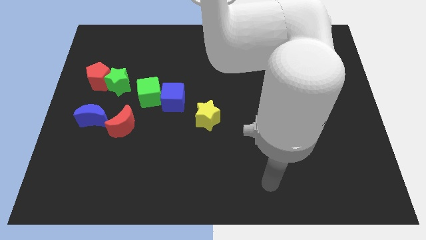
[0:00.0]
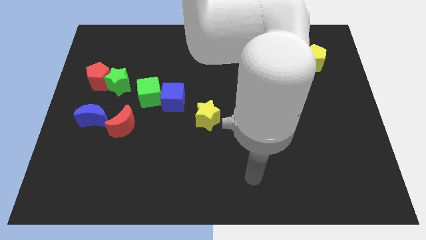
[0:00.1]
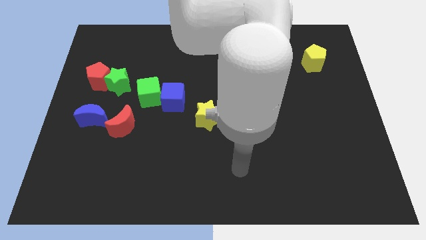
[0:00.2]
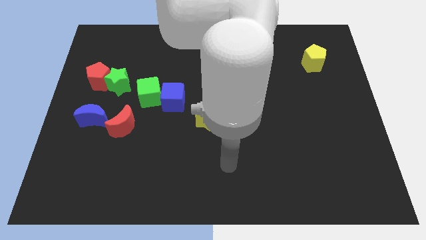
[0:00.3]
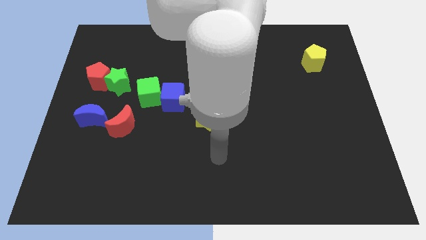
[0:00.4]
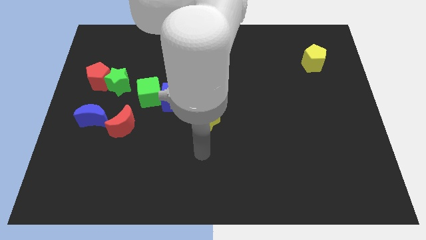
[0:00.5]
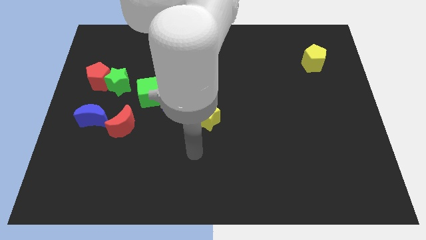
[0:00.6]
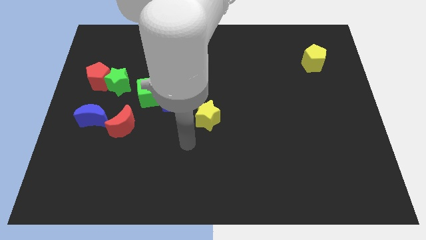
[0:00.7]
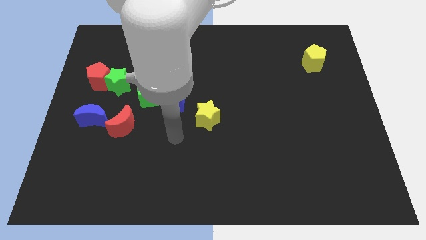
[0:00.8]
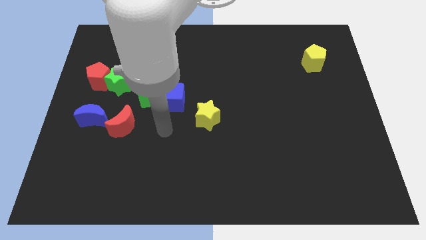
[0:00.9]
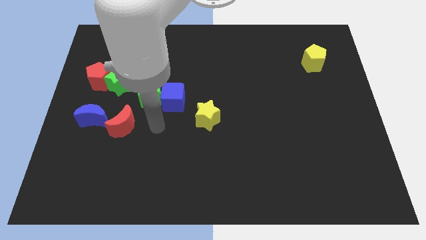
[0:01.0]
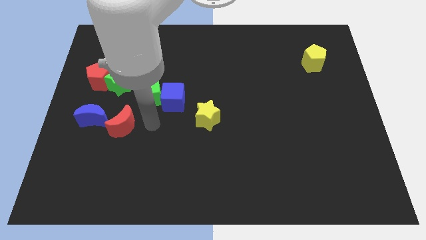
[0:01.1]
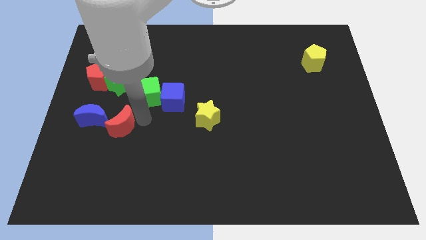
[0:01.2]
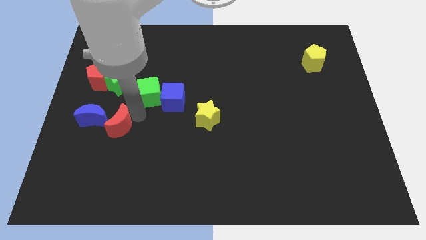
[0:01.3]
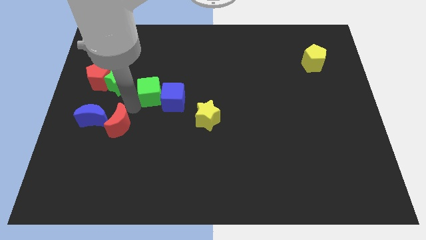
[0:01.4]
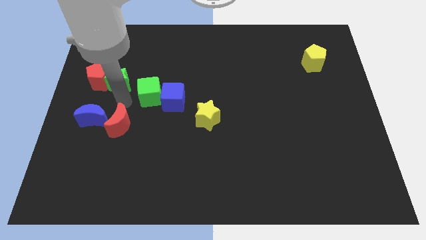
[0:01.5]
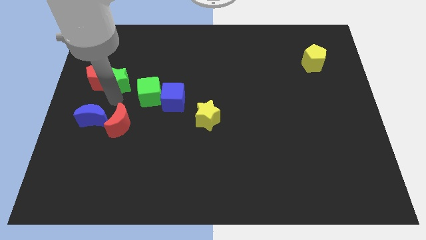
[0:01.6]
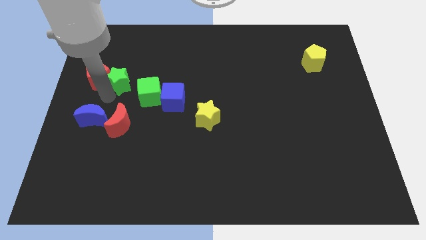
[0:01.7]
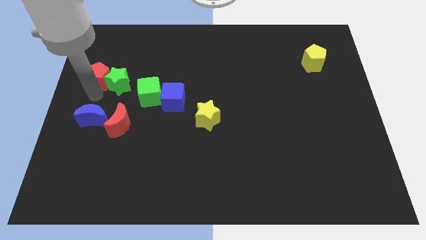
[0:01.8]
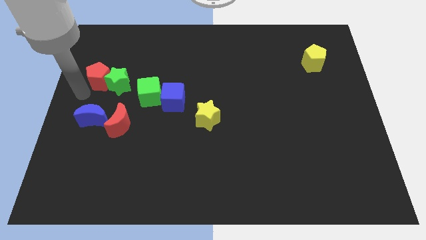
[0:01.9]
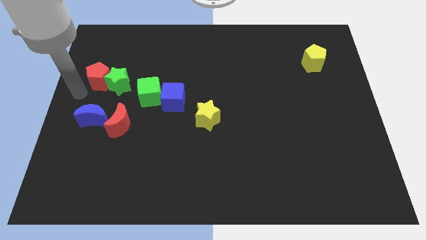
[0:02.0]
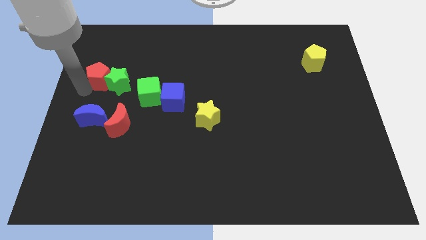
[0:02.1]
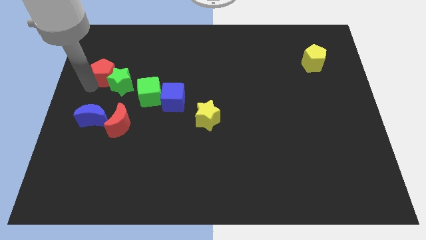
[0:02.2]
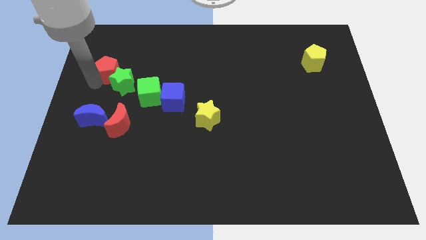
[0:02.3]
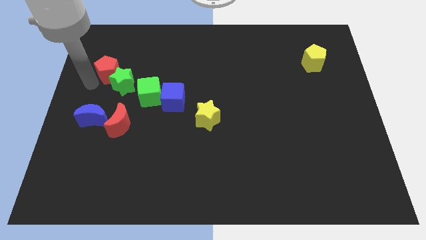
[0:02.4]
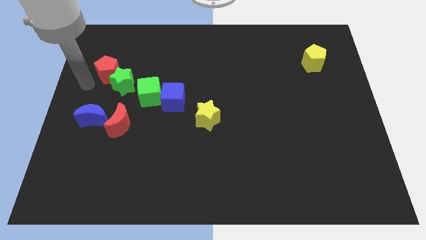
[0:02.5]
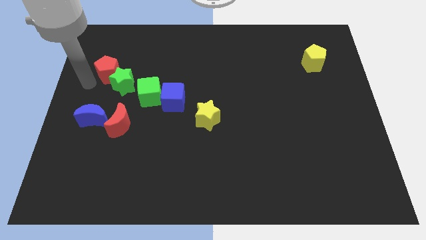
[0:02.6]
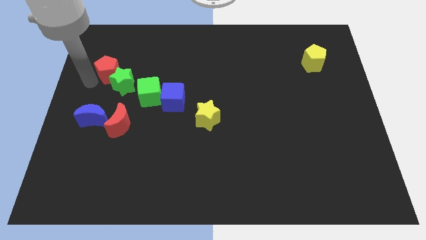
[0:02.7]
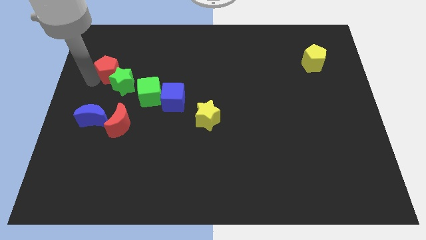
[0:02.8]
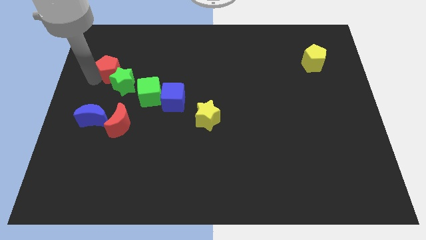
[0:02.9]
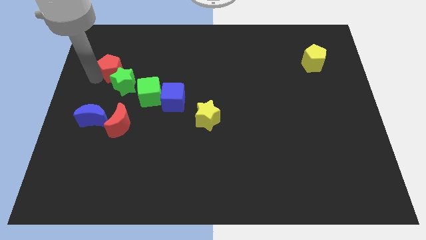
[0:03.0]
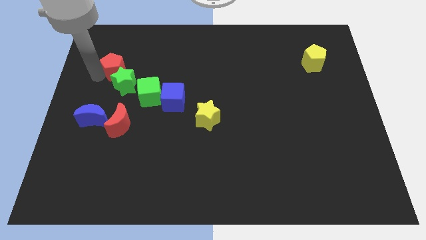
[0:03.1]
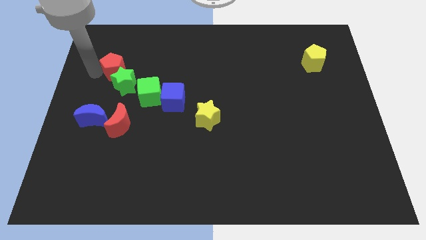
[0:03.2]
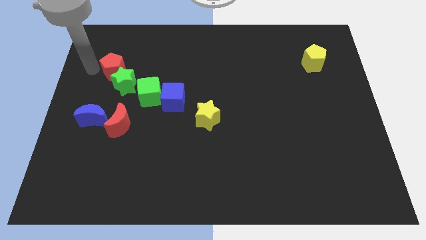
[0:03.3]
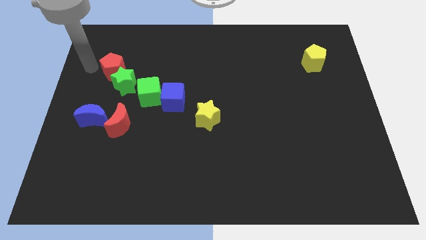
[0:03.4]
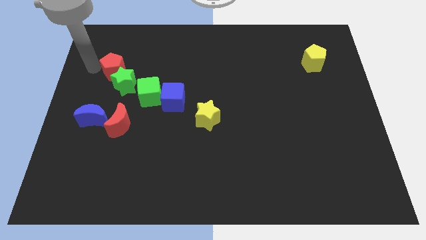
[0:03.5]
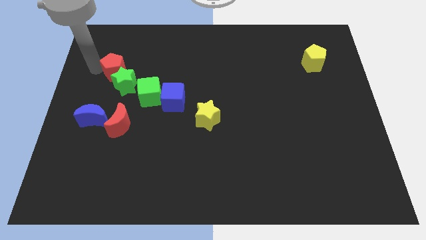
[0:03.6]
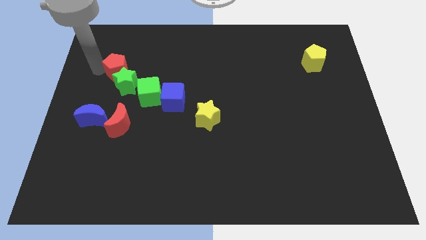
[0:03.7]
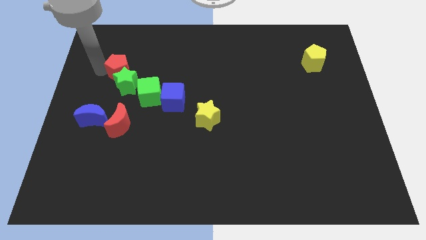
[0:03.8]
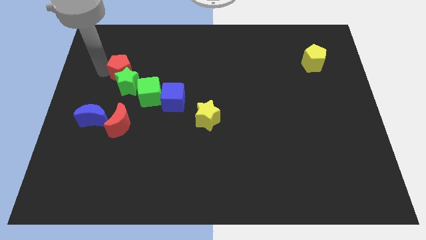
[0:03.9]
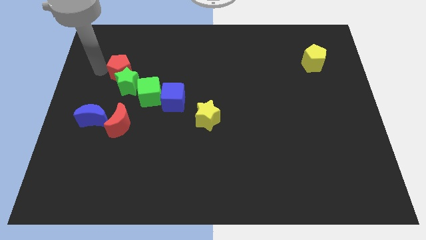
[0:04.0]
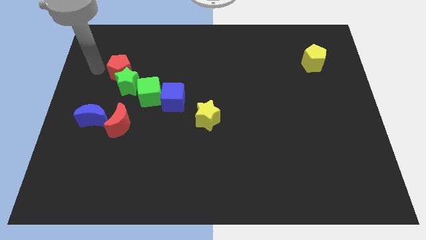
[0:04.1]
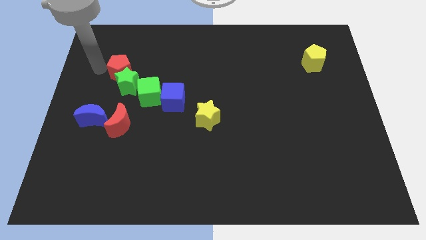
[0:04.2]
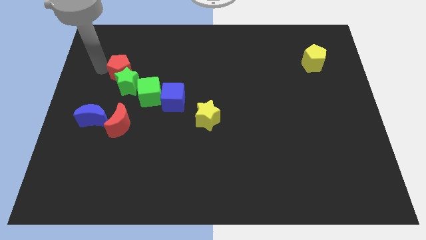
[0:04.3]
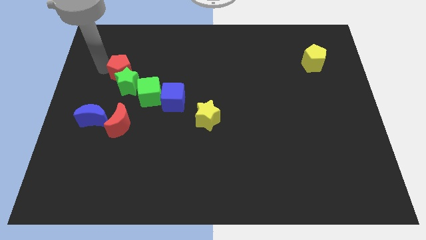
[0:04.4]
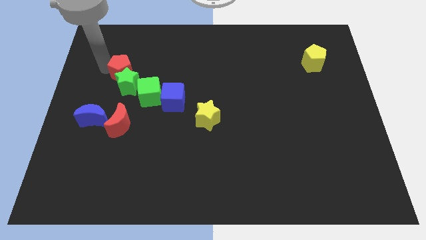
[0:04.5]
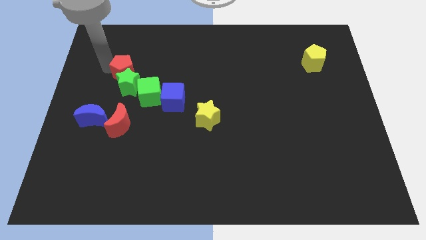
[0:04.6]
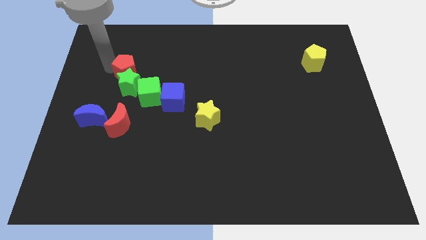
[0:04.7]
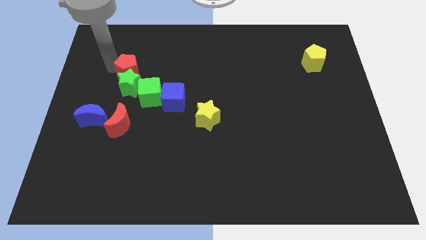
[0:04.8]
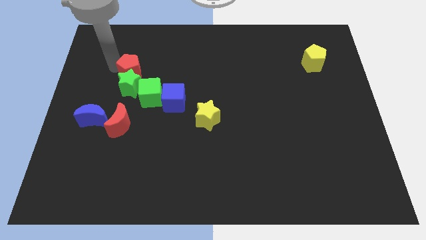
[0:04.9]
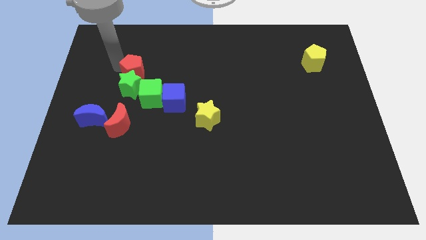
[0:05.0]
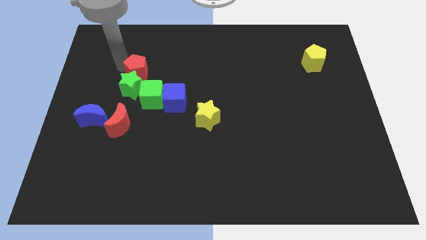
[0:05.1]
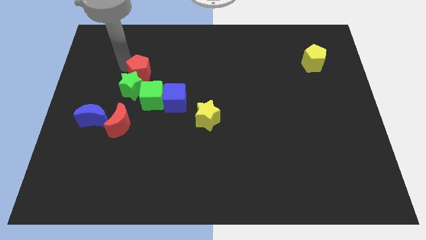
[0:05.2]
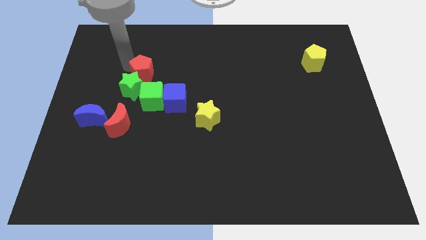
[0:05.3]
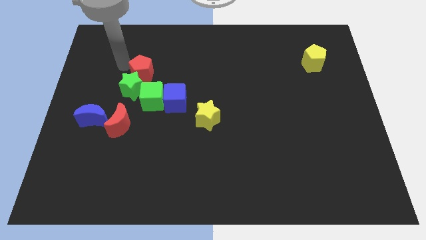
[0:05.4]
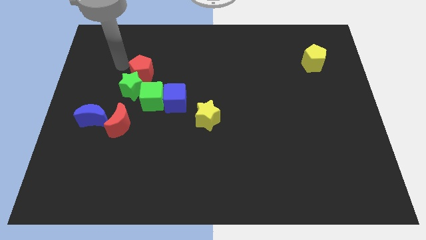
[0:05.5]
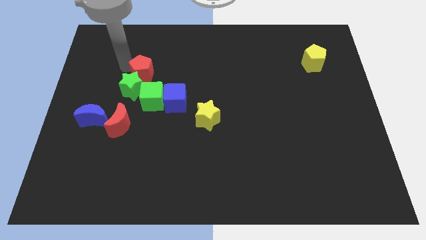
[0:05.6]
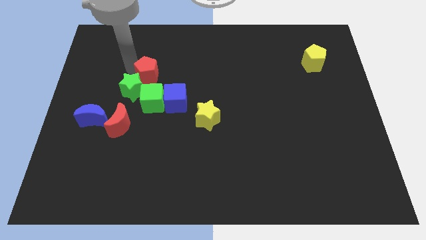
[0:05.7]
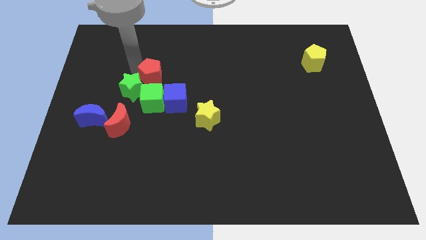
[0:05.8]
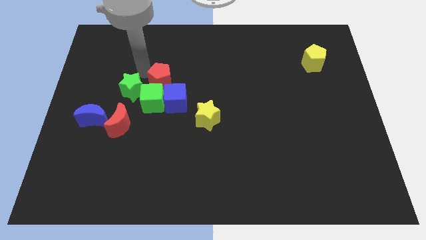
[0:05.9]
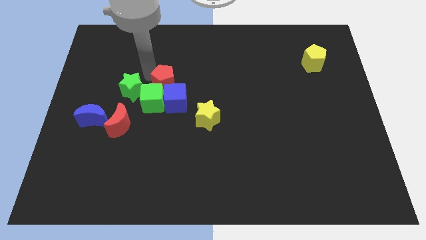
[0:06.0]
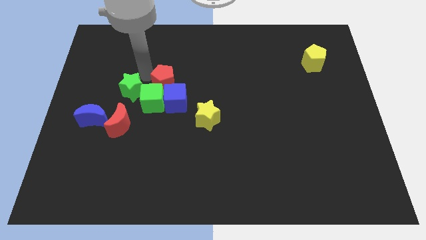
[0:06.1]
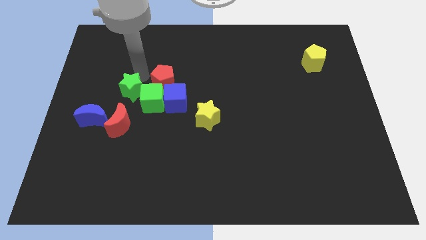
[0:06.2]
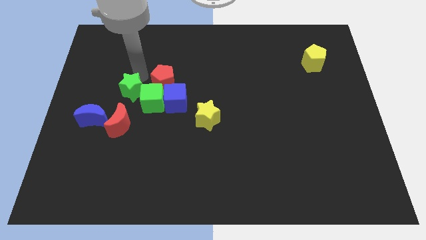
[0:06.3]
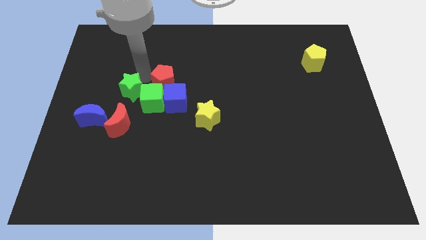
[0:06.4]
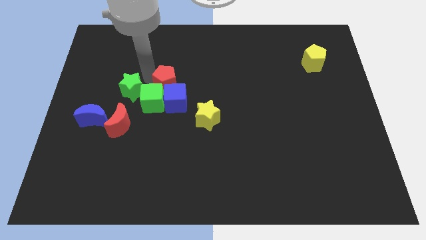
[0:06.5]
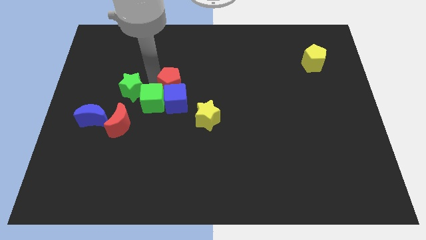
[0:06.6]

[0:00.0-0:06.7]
push the red pentagon to the center
